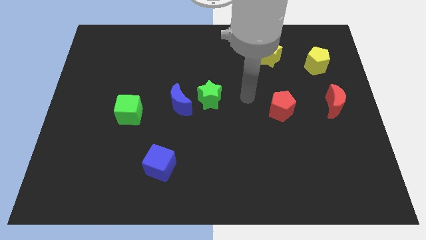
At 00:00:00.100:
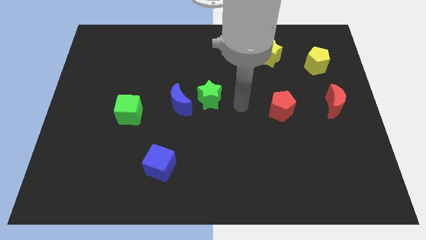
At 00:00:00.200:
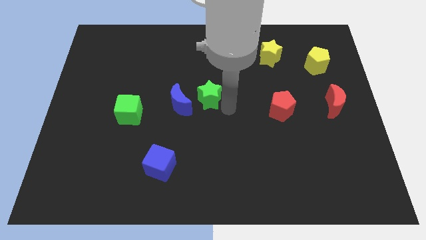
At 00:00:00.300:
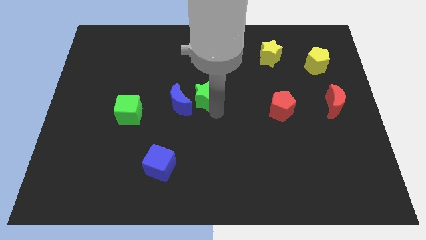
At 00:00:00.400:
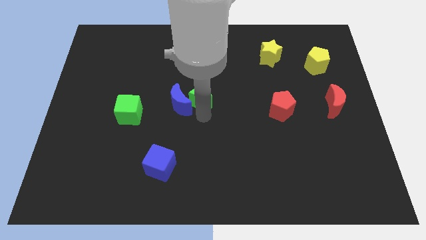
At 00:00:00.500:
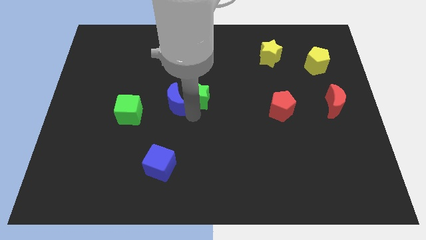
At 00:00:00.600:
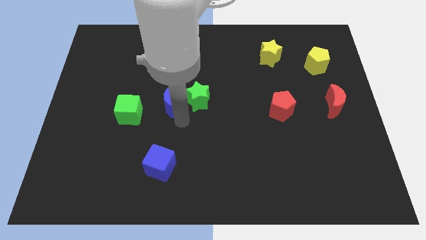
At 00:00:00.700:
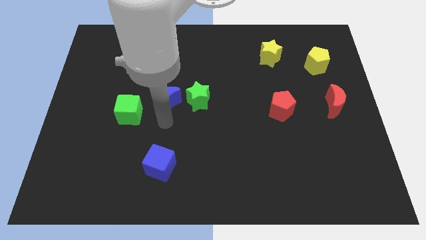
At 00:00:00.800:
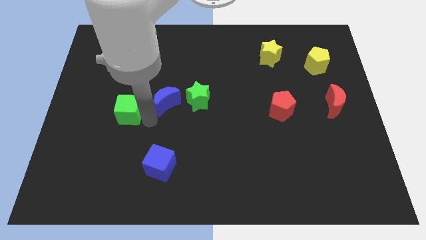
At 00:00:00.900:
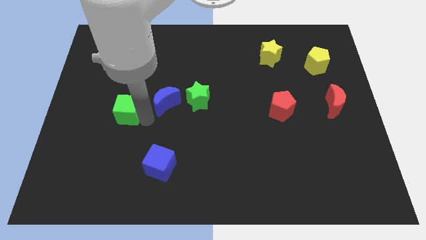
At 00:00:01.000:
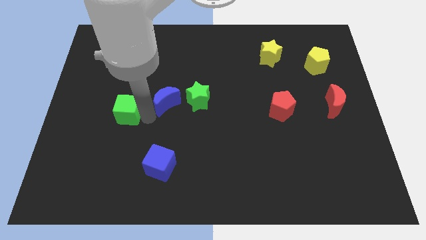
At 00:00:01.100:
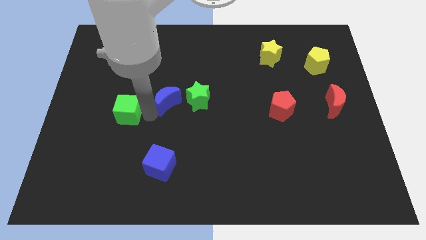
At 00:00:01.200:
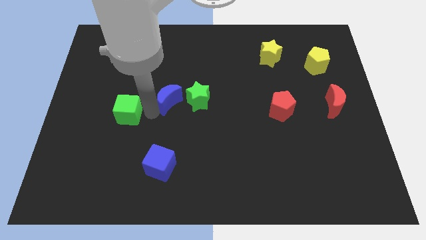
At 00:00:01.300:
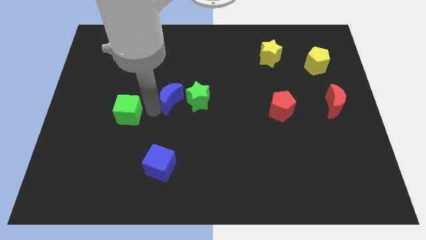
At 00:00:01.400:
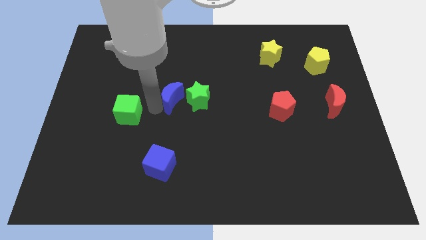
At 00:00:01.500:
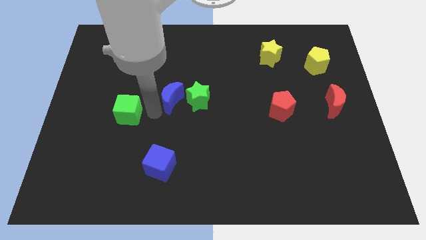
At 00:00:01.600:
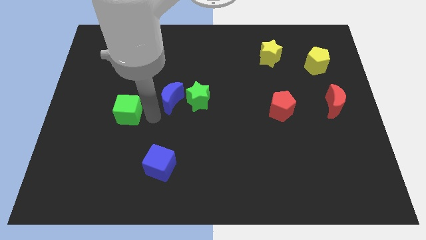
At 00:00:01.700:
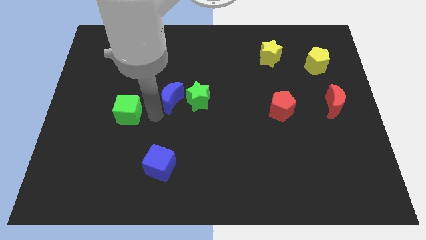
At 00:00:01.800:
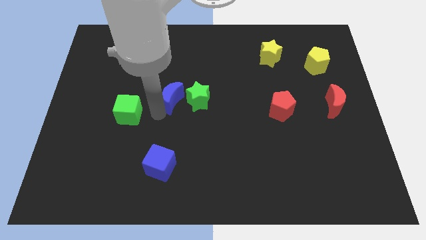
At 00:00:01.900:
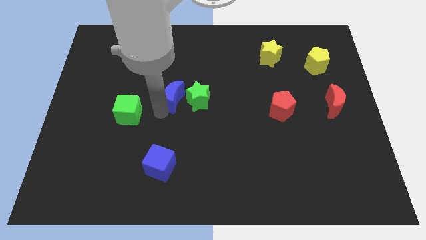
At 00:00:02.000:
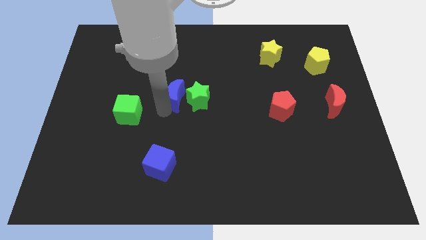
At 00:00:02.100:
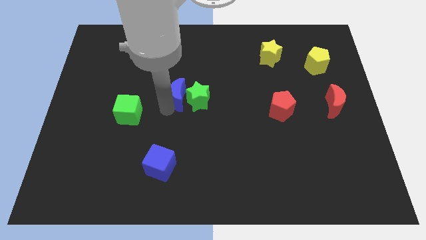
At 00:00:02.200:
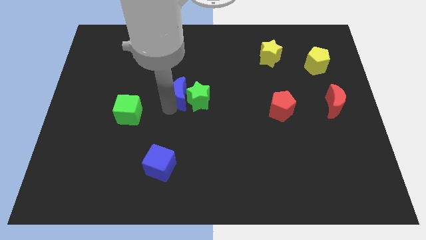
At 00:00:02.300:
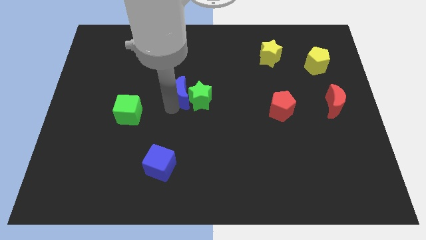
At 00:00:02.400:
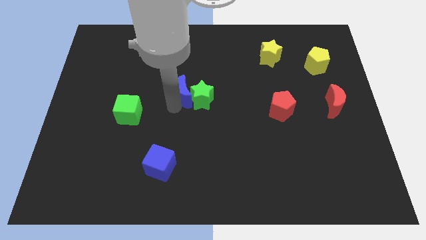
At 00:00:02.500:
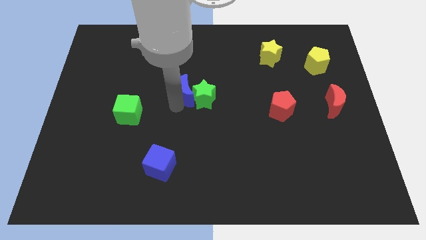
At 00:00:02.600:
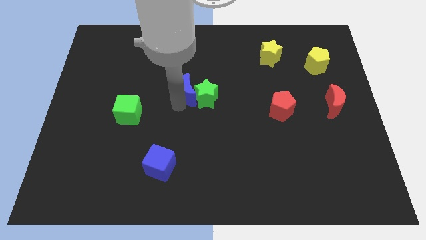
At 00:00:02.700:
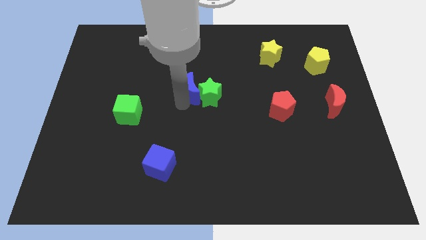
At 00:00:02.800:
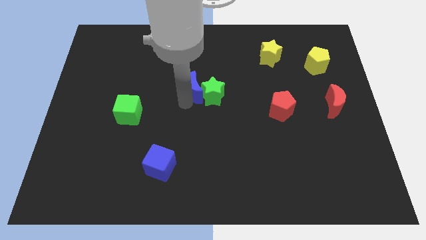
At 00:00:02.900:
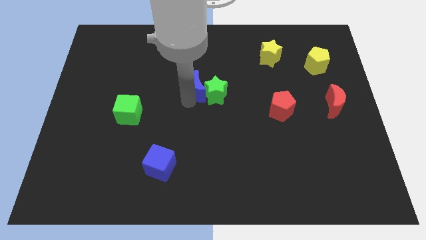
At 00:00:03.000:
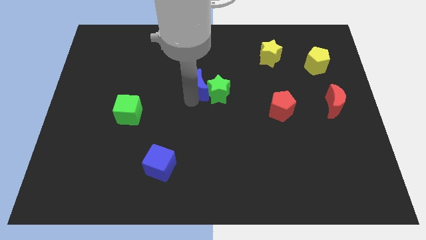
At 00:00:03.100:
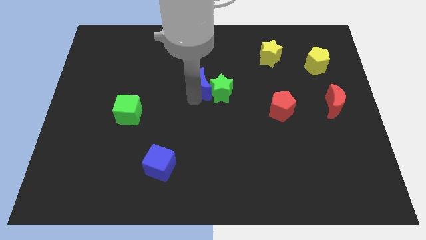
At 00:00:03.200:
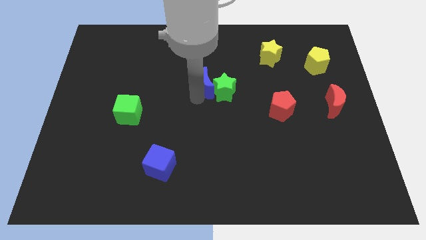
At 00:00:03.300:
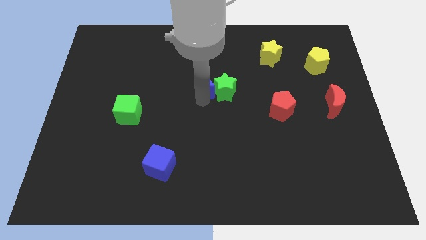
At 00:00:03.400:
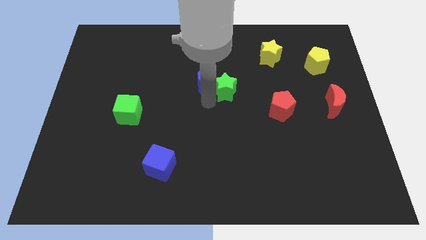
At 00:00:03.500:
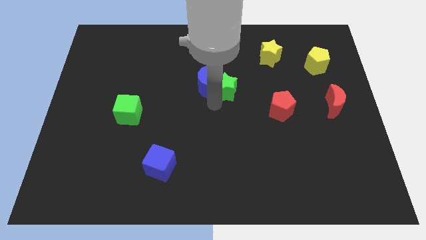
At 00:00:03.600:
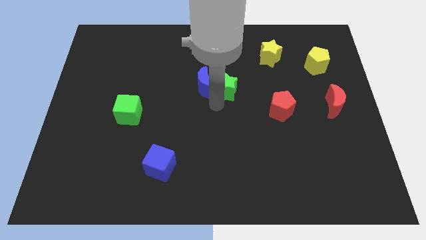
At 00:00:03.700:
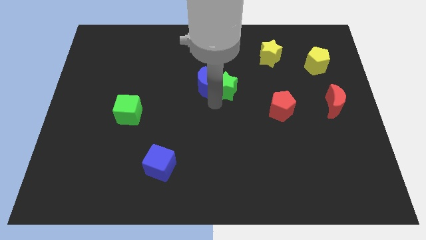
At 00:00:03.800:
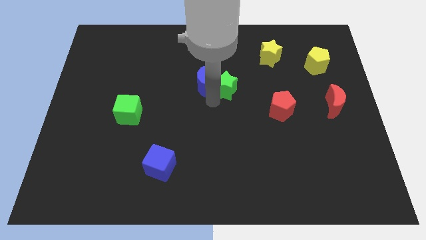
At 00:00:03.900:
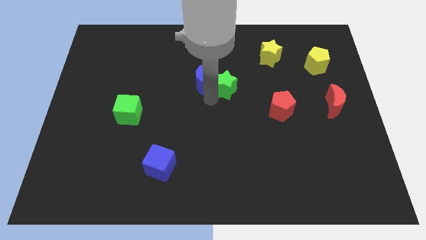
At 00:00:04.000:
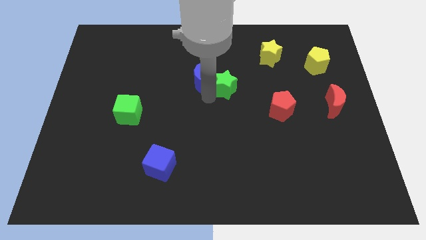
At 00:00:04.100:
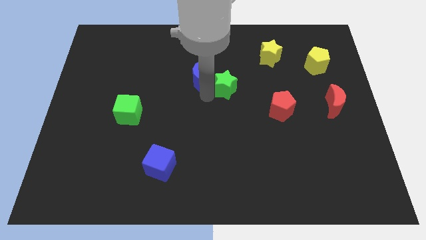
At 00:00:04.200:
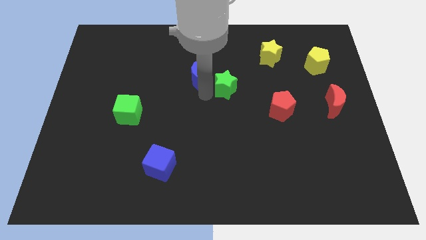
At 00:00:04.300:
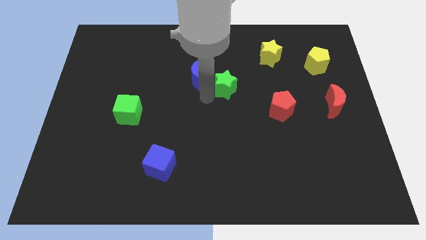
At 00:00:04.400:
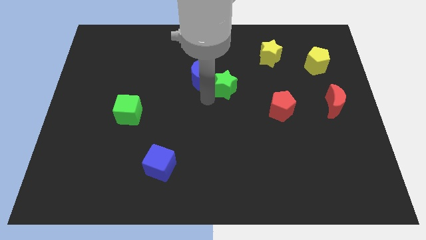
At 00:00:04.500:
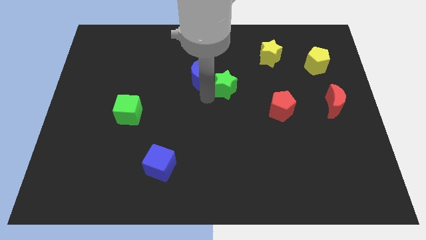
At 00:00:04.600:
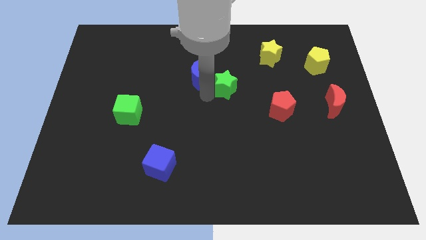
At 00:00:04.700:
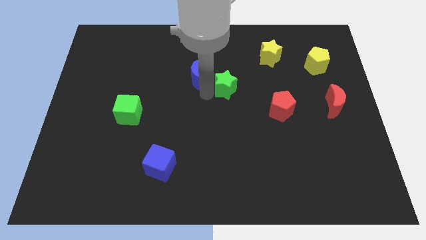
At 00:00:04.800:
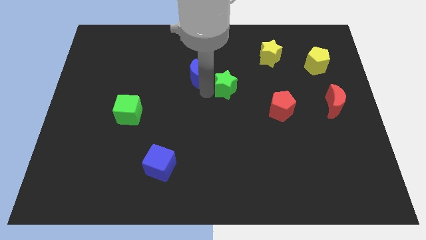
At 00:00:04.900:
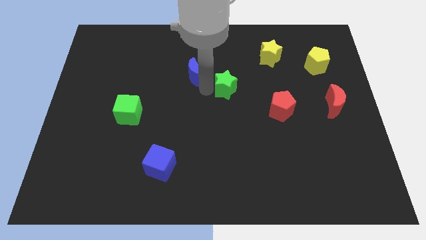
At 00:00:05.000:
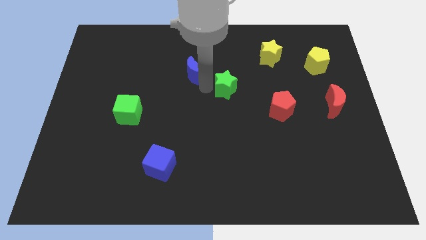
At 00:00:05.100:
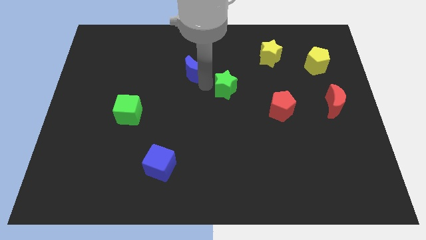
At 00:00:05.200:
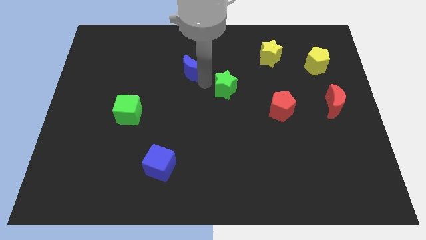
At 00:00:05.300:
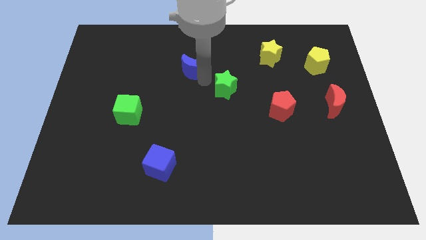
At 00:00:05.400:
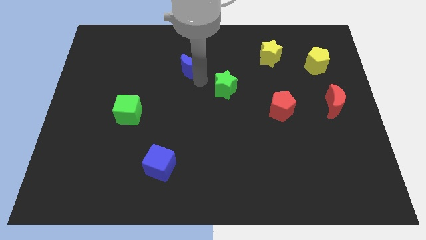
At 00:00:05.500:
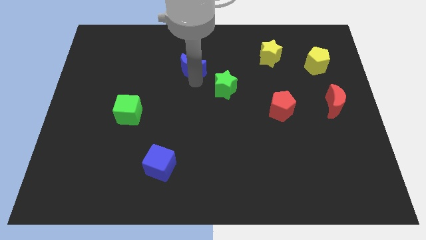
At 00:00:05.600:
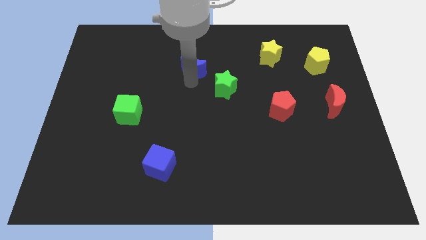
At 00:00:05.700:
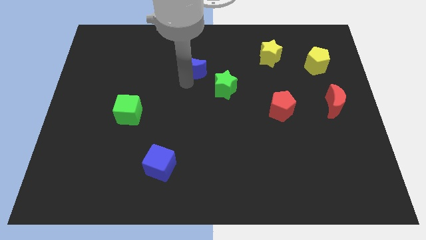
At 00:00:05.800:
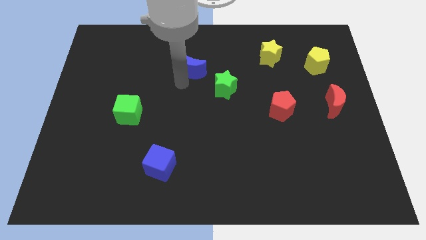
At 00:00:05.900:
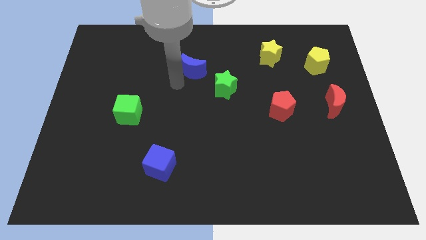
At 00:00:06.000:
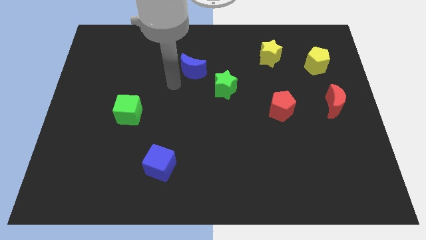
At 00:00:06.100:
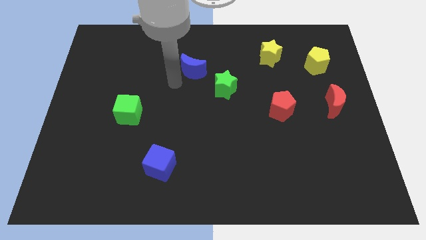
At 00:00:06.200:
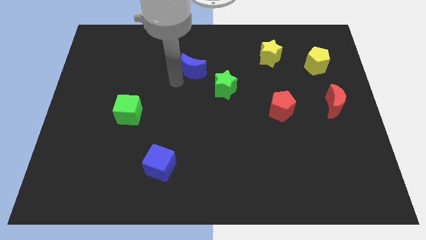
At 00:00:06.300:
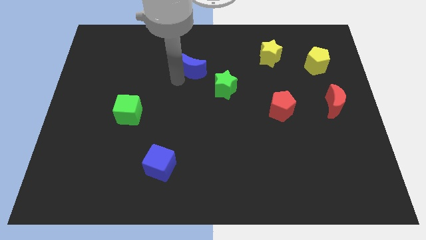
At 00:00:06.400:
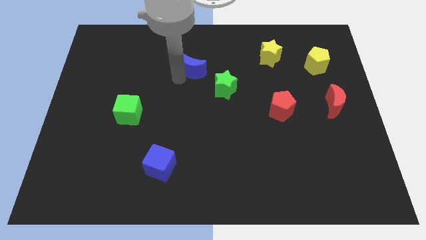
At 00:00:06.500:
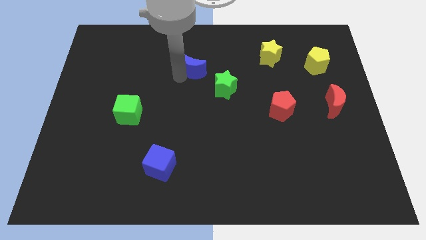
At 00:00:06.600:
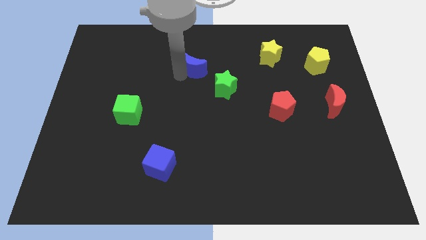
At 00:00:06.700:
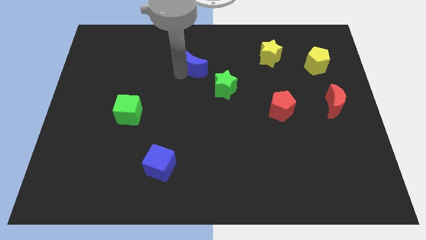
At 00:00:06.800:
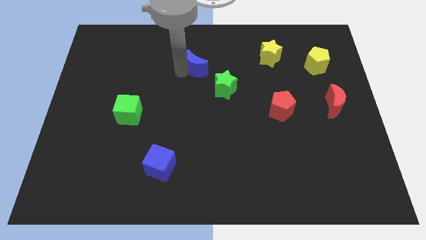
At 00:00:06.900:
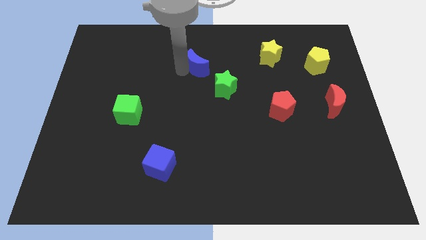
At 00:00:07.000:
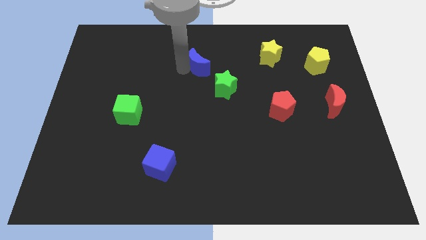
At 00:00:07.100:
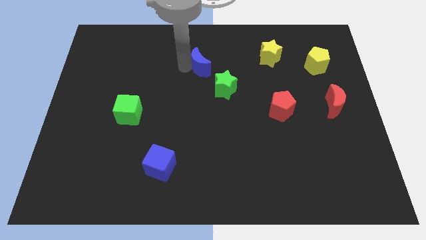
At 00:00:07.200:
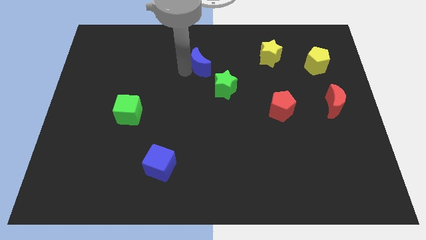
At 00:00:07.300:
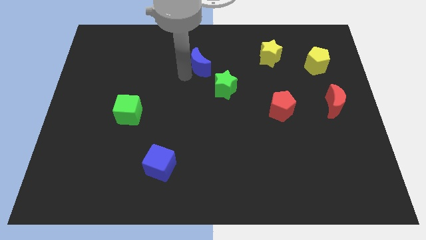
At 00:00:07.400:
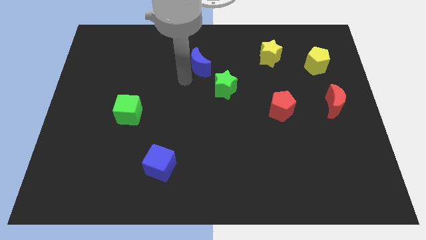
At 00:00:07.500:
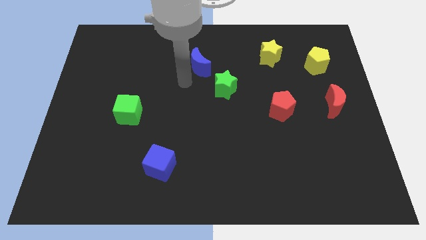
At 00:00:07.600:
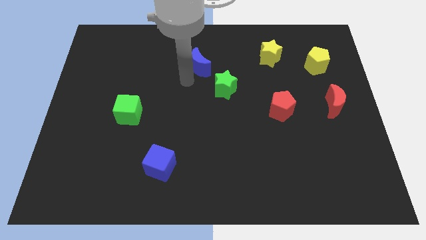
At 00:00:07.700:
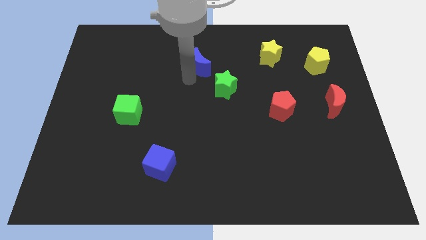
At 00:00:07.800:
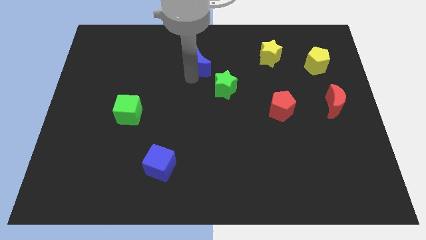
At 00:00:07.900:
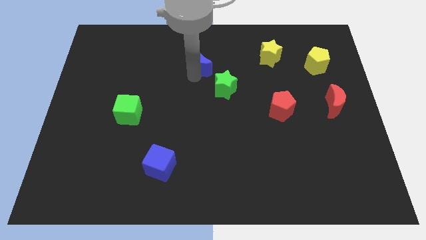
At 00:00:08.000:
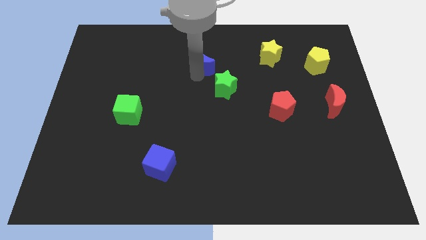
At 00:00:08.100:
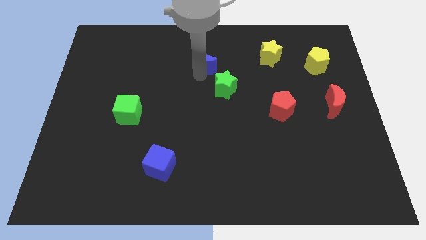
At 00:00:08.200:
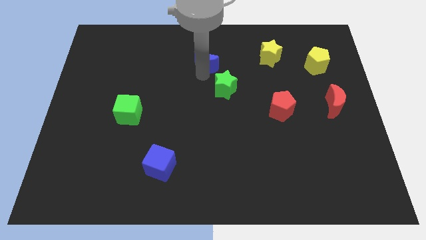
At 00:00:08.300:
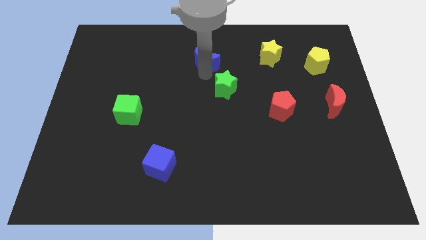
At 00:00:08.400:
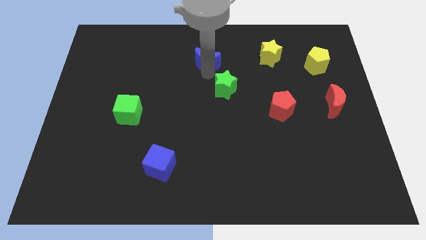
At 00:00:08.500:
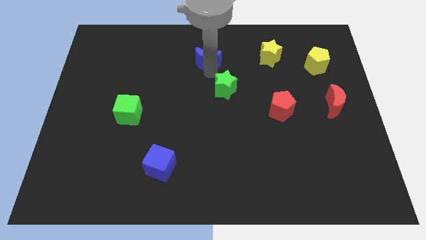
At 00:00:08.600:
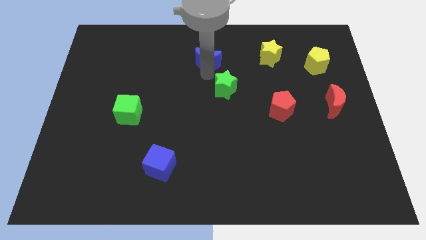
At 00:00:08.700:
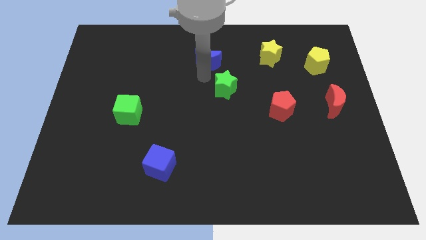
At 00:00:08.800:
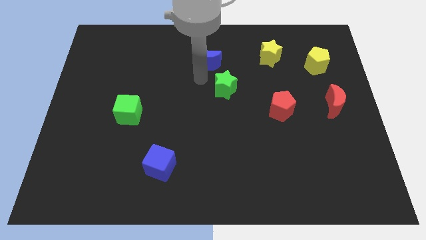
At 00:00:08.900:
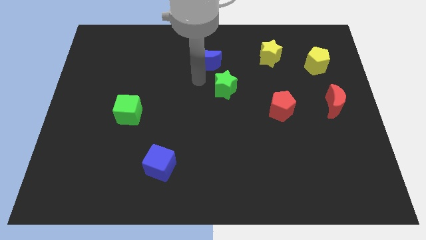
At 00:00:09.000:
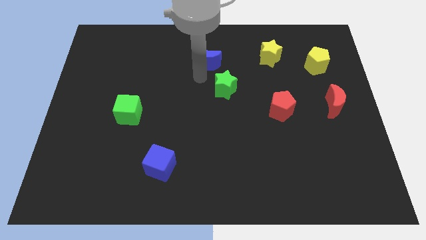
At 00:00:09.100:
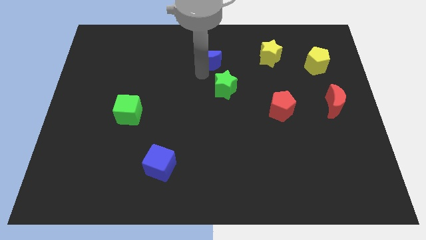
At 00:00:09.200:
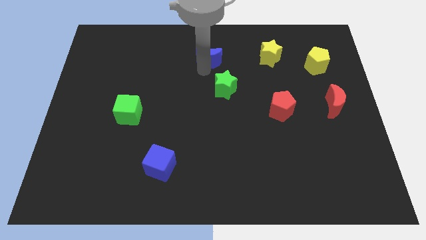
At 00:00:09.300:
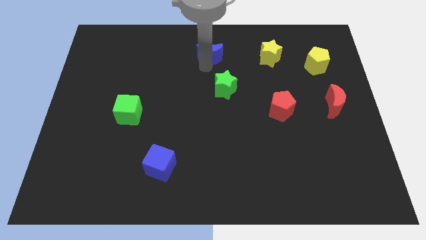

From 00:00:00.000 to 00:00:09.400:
put the blue moon to the top side
